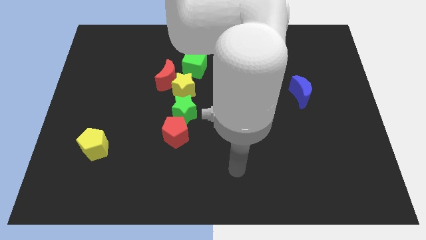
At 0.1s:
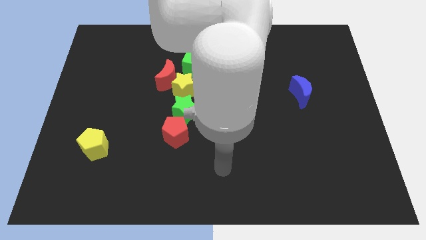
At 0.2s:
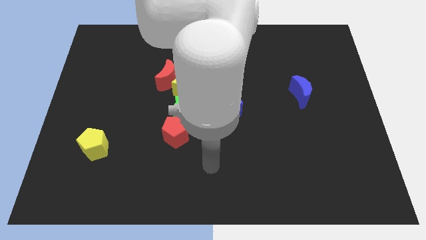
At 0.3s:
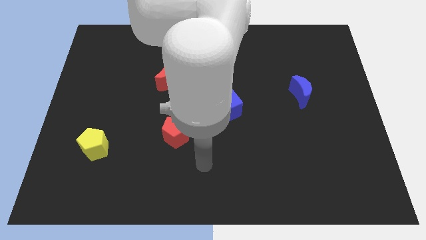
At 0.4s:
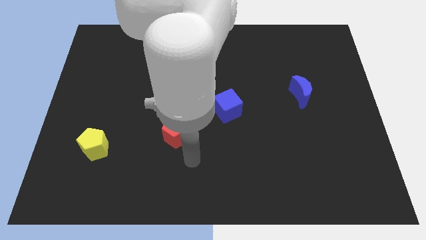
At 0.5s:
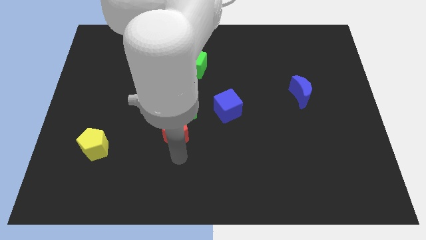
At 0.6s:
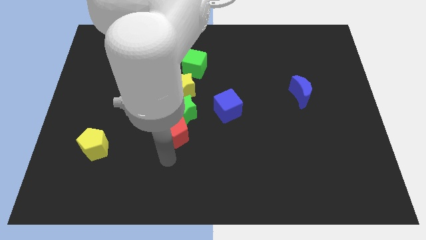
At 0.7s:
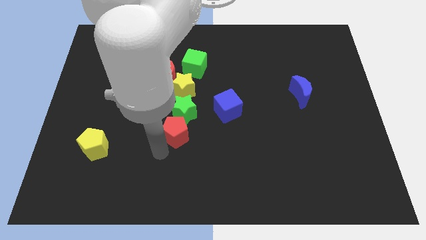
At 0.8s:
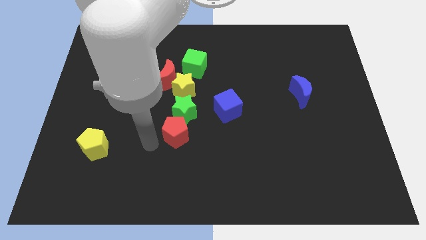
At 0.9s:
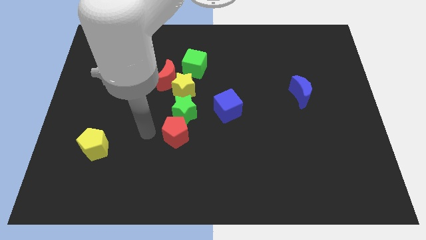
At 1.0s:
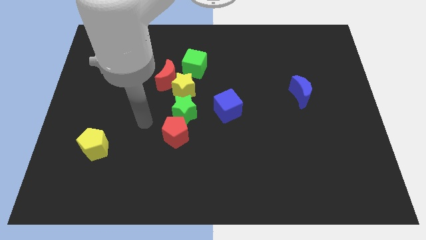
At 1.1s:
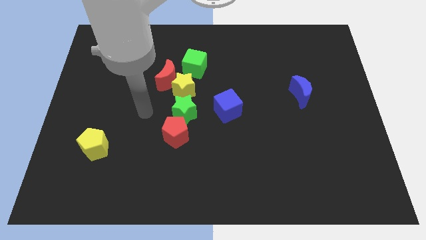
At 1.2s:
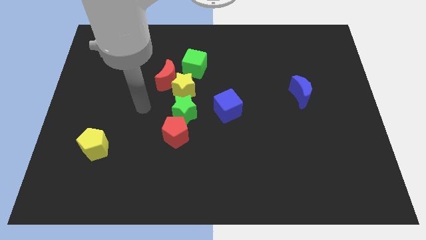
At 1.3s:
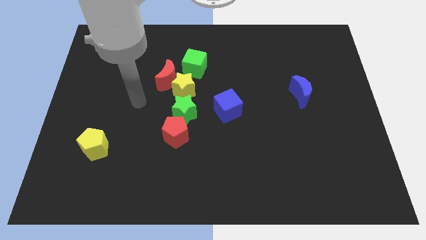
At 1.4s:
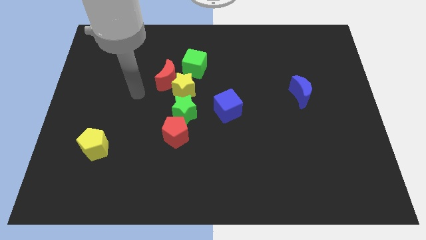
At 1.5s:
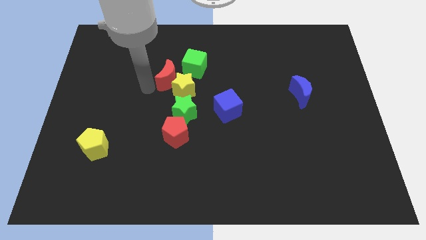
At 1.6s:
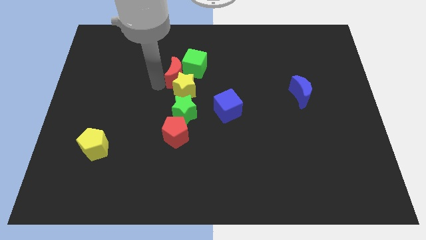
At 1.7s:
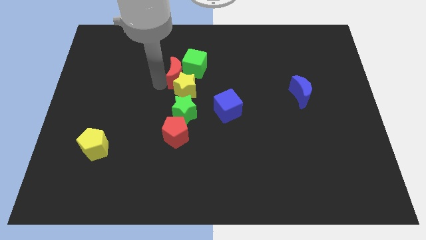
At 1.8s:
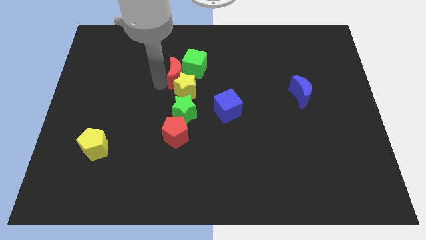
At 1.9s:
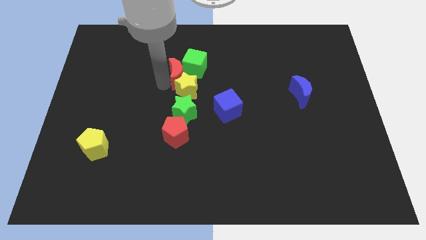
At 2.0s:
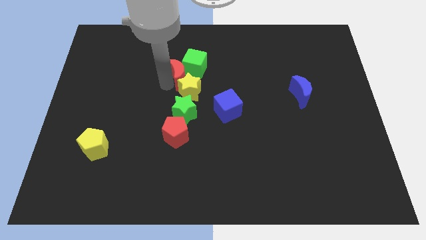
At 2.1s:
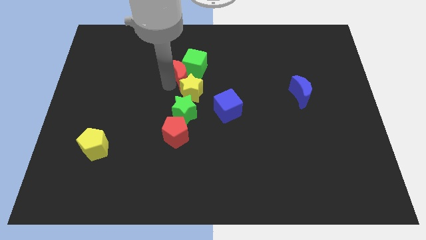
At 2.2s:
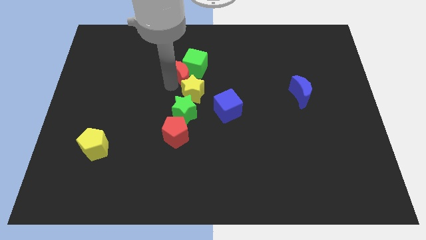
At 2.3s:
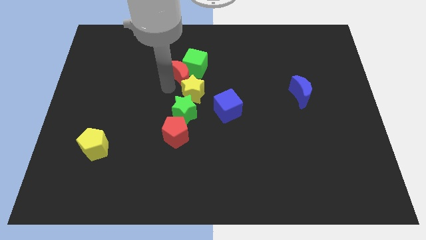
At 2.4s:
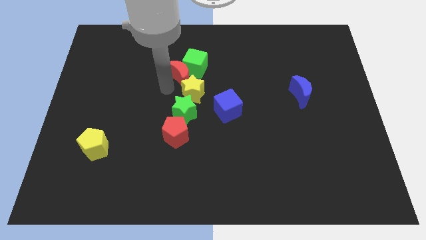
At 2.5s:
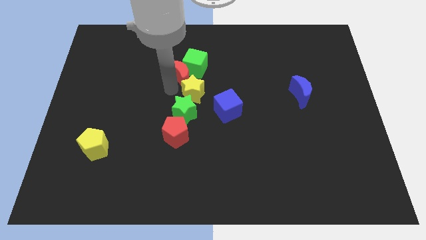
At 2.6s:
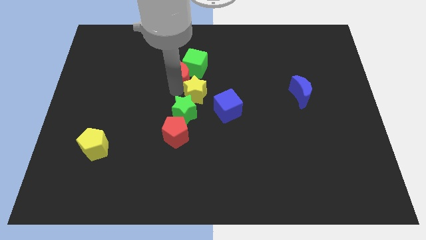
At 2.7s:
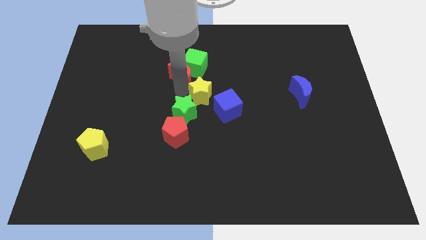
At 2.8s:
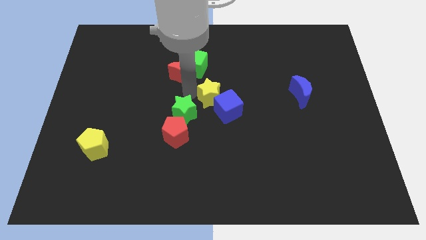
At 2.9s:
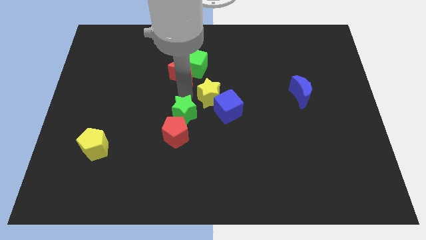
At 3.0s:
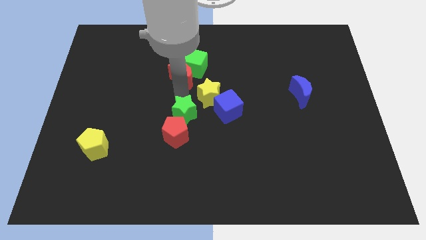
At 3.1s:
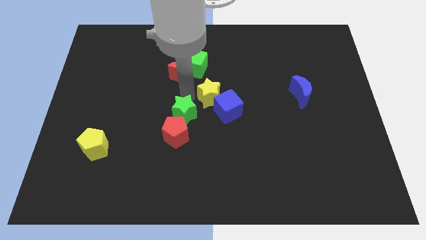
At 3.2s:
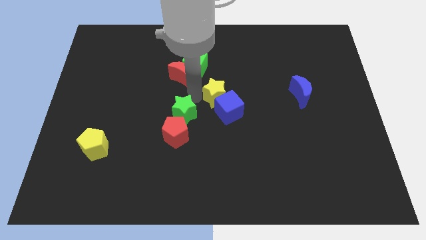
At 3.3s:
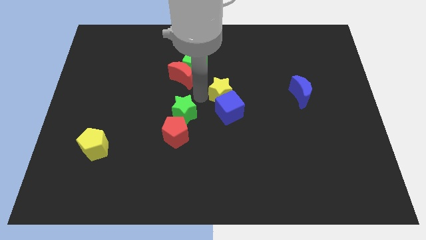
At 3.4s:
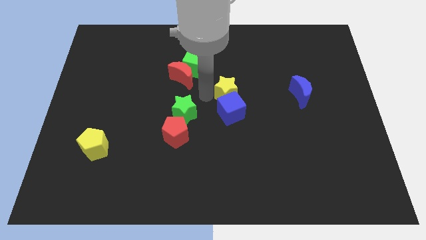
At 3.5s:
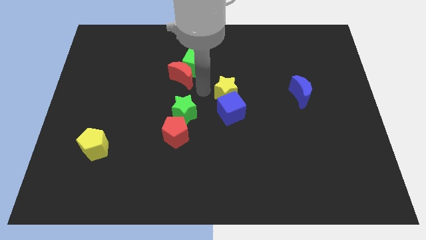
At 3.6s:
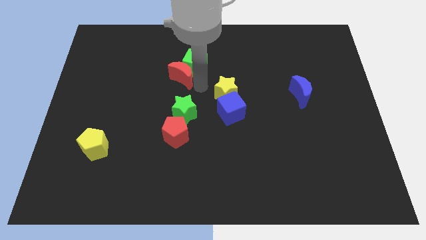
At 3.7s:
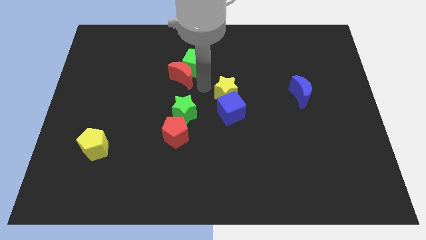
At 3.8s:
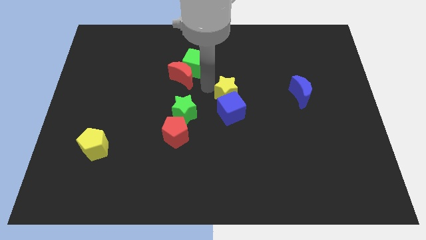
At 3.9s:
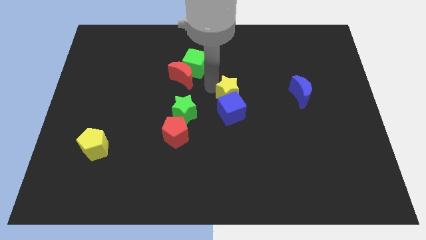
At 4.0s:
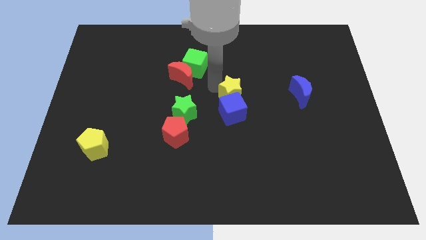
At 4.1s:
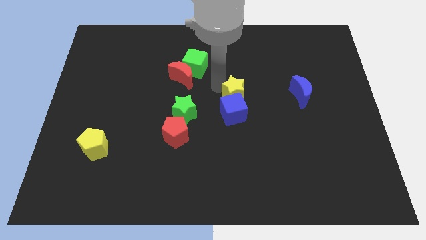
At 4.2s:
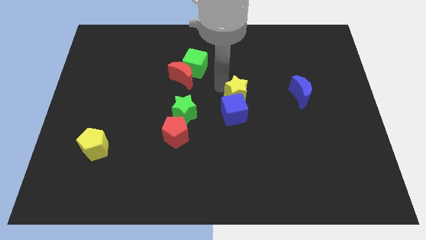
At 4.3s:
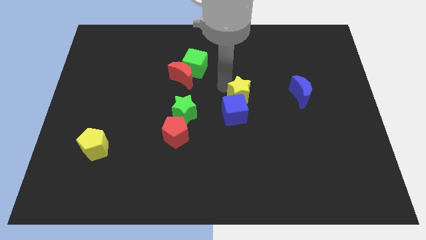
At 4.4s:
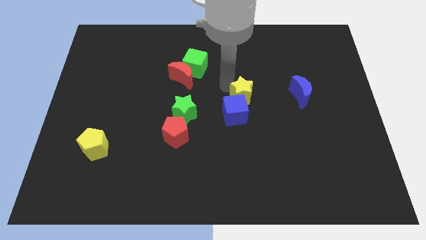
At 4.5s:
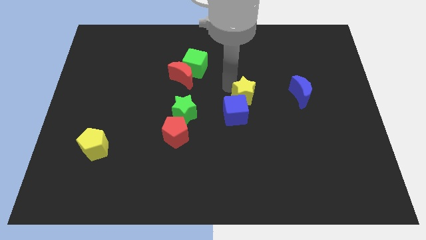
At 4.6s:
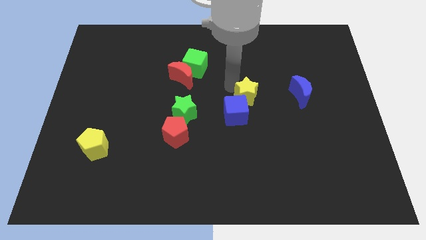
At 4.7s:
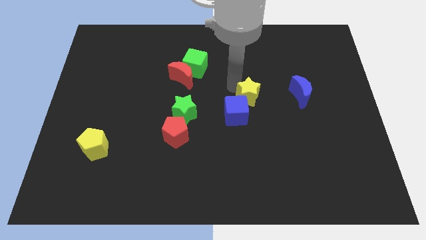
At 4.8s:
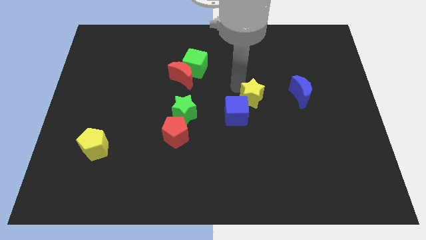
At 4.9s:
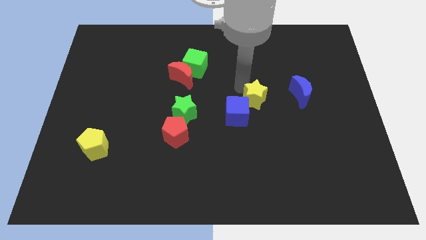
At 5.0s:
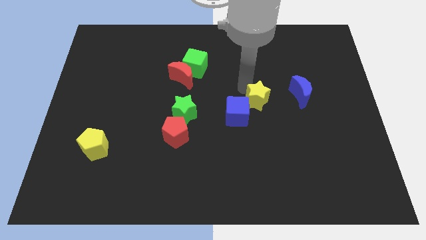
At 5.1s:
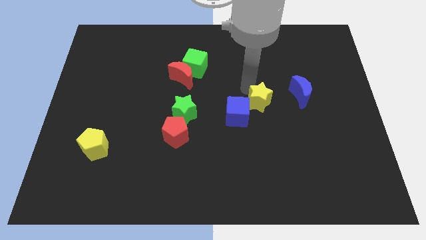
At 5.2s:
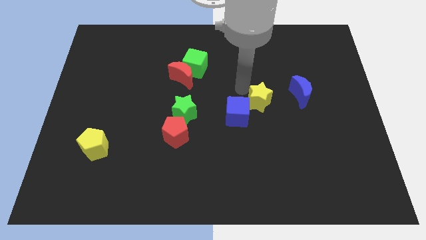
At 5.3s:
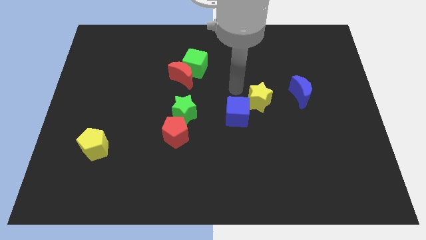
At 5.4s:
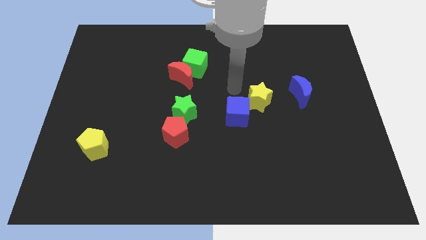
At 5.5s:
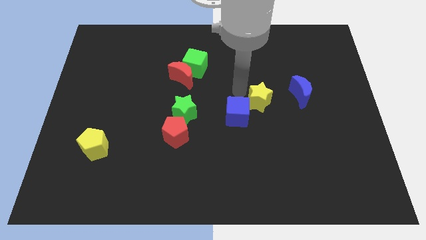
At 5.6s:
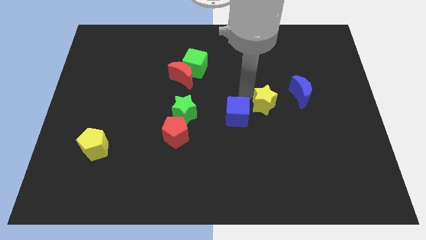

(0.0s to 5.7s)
push the yellow star to the bottom left of the blue moon

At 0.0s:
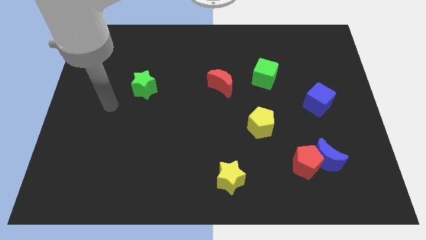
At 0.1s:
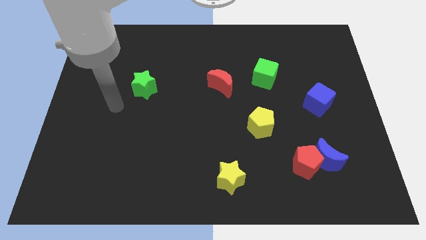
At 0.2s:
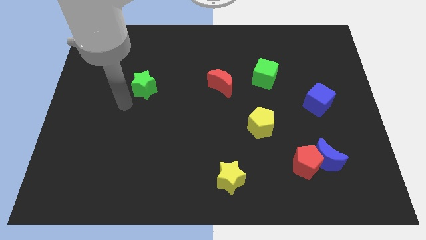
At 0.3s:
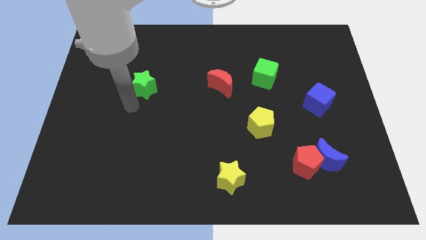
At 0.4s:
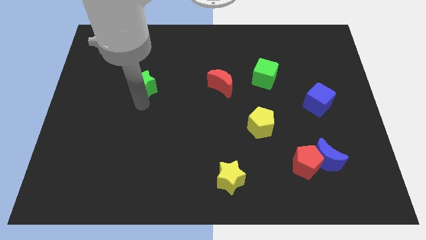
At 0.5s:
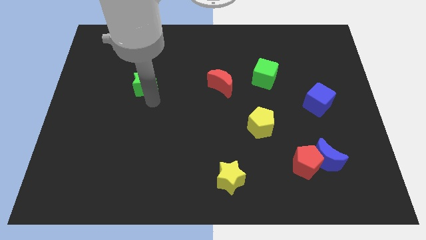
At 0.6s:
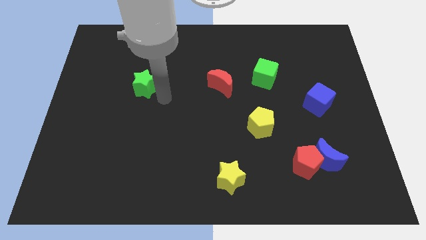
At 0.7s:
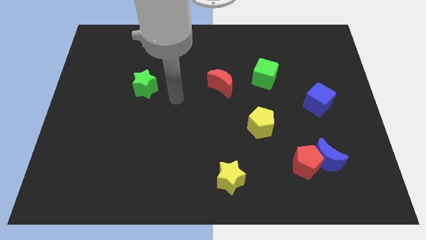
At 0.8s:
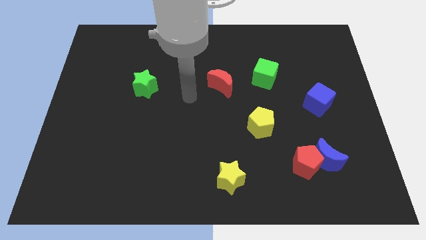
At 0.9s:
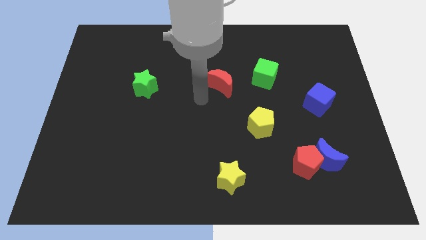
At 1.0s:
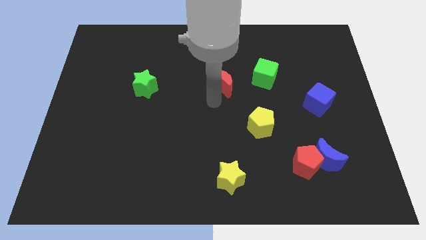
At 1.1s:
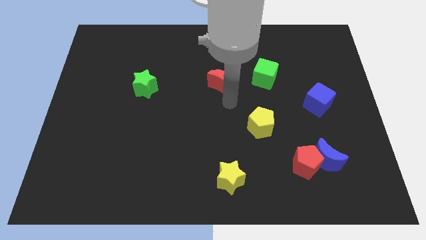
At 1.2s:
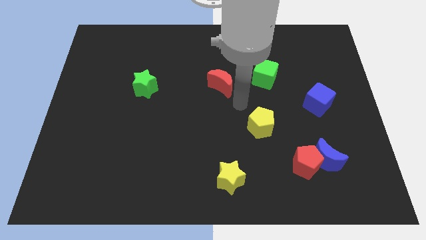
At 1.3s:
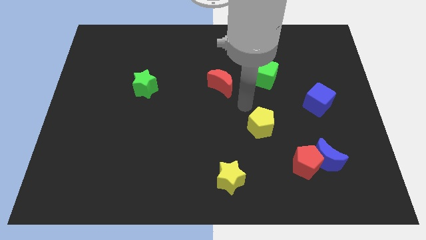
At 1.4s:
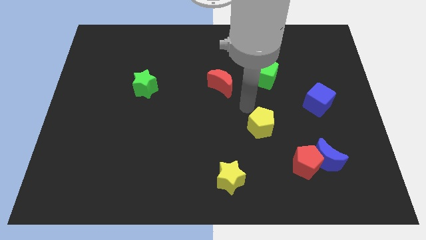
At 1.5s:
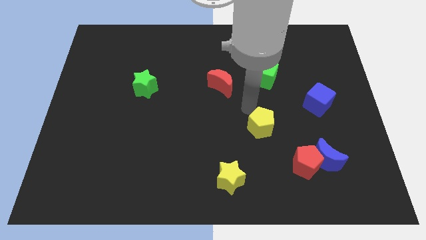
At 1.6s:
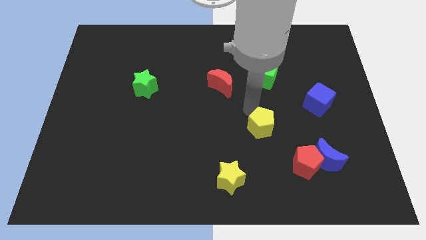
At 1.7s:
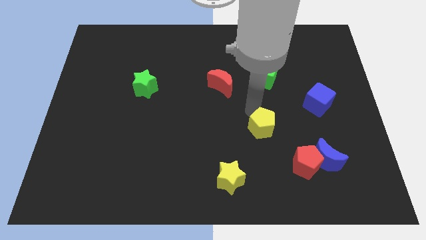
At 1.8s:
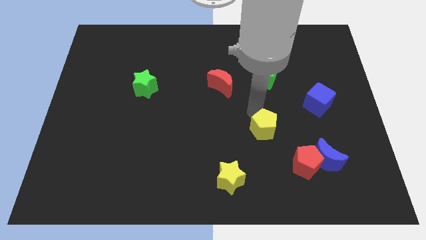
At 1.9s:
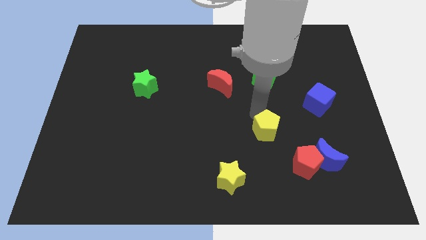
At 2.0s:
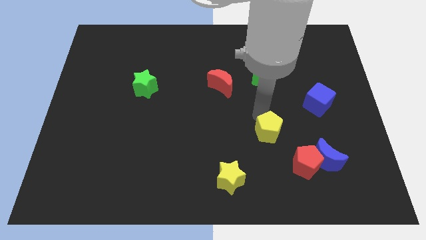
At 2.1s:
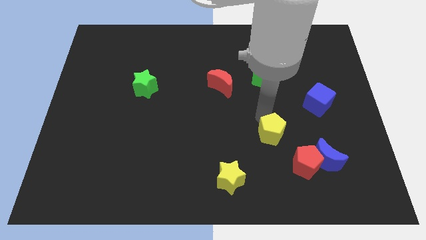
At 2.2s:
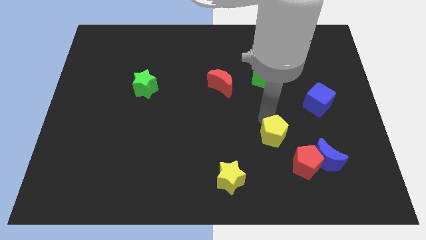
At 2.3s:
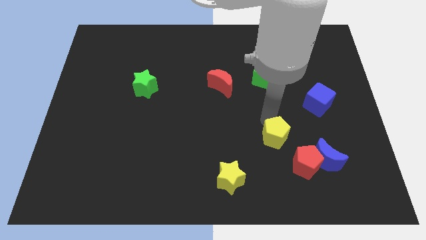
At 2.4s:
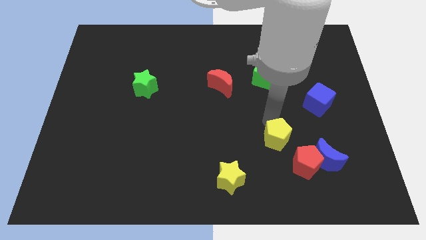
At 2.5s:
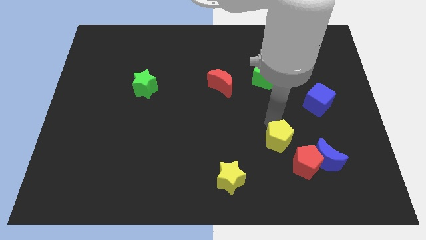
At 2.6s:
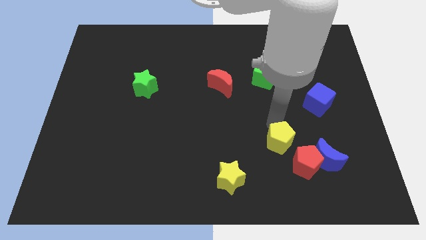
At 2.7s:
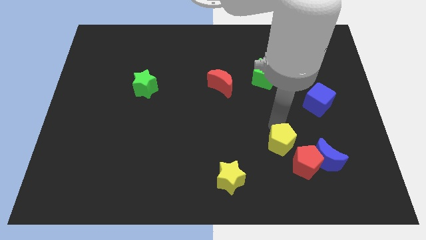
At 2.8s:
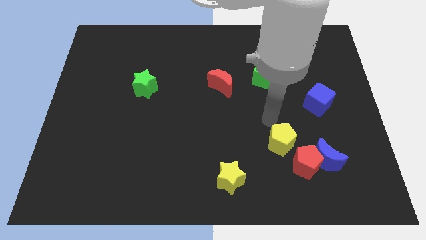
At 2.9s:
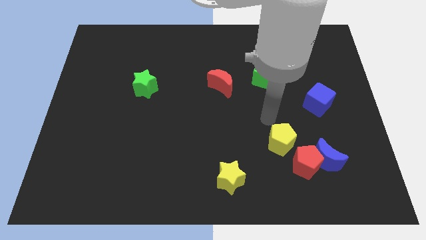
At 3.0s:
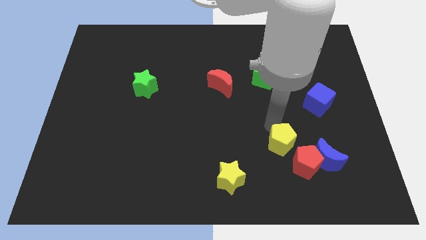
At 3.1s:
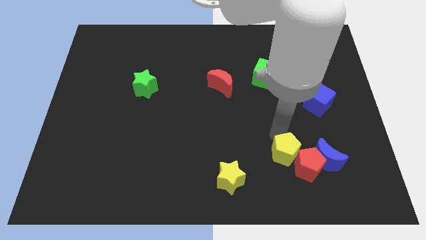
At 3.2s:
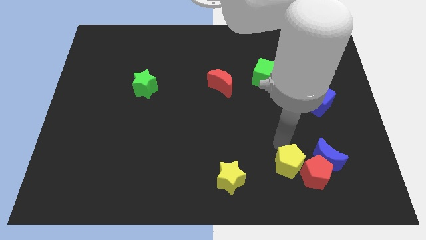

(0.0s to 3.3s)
push the yellow pentagon diagonally down and to the left of the blue moon
